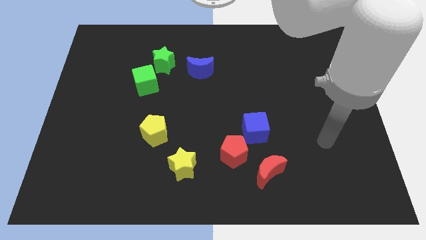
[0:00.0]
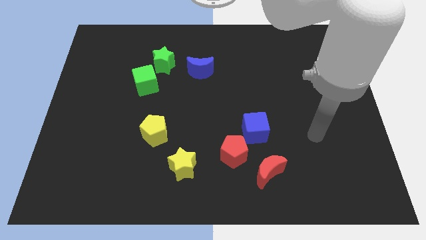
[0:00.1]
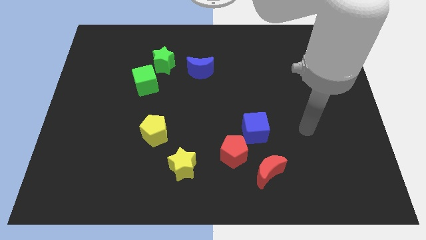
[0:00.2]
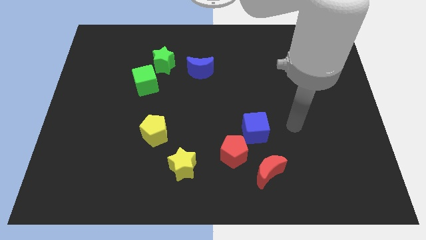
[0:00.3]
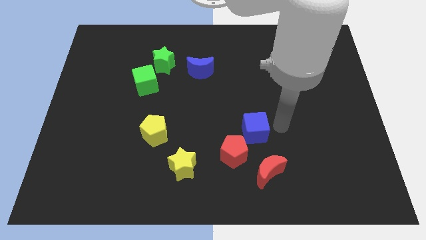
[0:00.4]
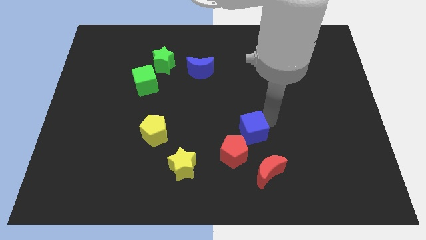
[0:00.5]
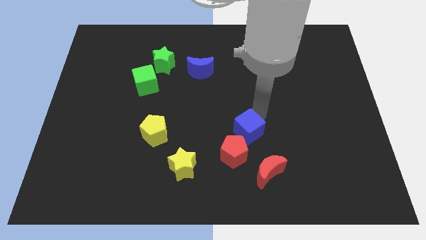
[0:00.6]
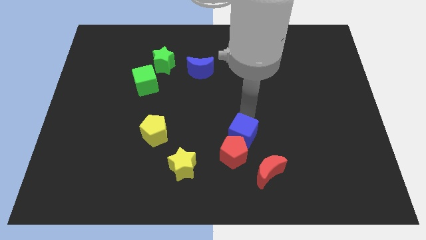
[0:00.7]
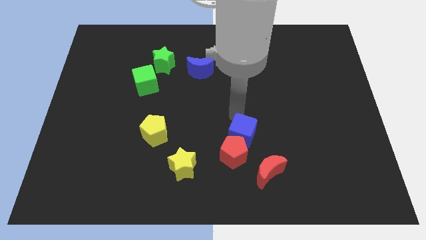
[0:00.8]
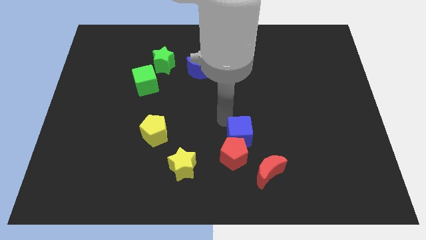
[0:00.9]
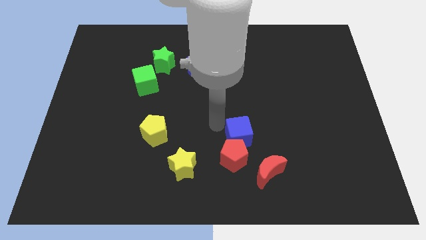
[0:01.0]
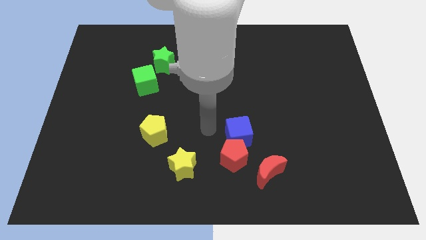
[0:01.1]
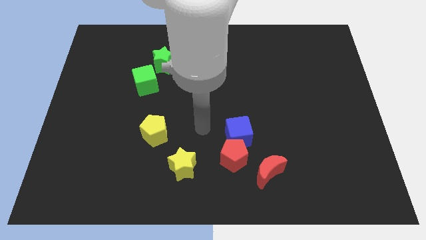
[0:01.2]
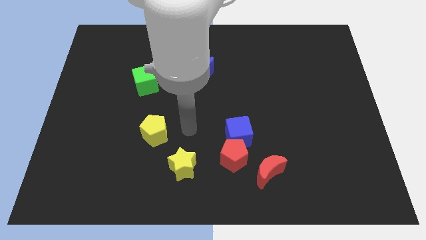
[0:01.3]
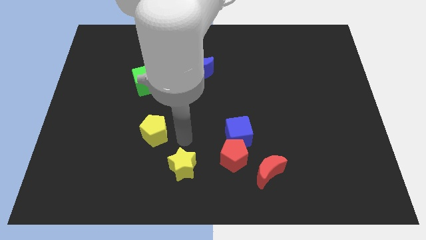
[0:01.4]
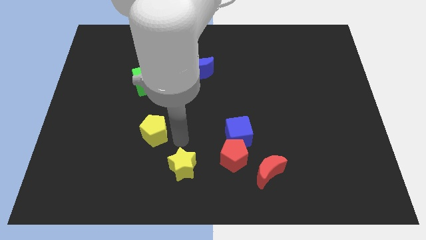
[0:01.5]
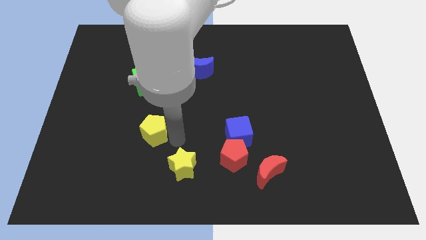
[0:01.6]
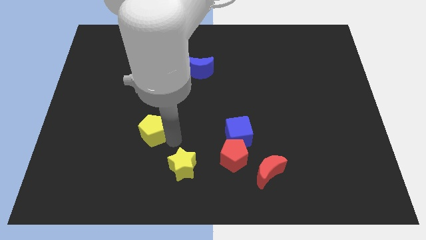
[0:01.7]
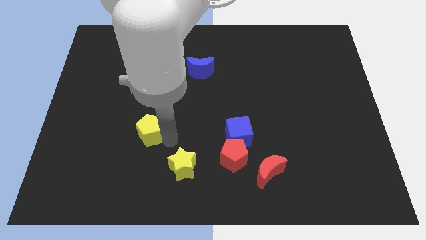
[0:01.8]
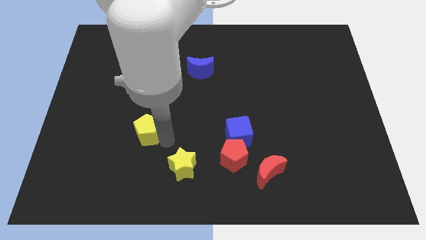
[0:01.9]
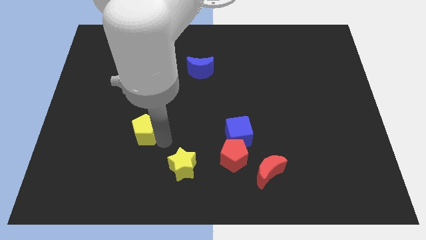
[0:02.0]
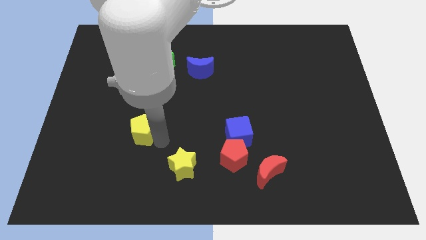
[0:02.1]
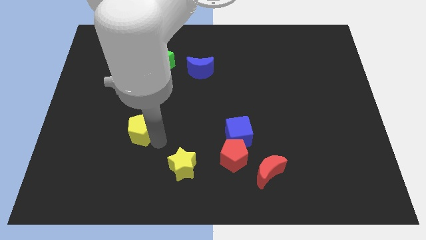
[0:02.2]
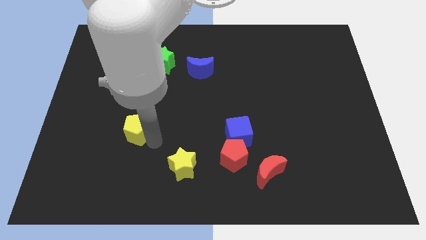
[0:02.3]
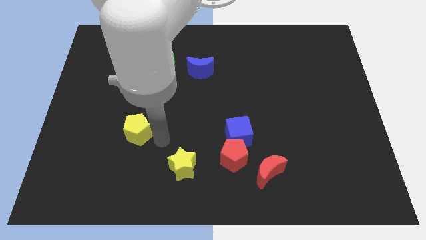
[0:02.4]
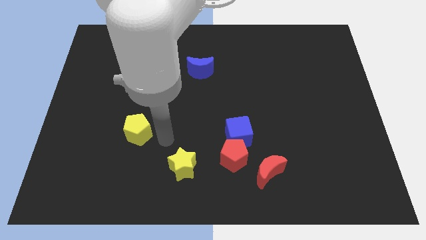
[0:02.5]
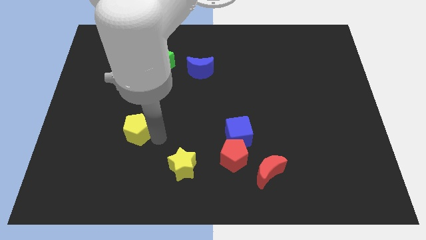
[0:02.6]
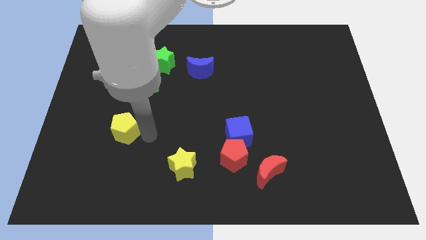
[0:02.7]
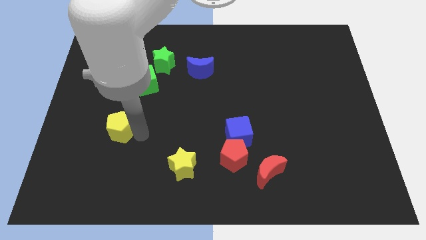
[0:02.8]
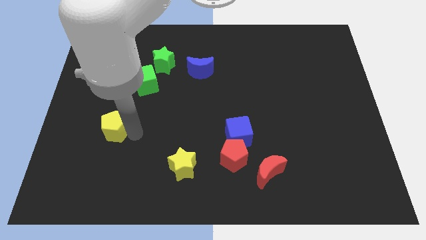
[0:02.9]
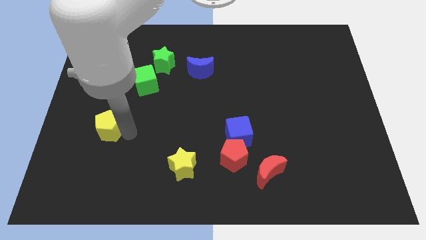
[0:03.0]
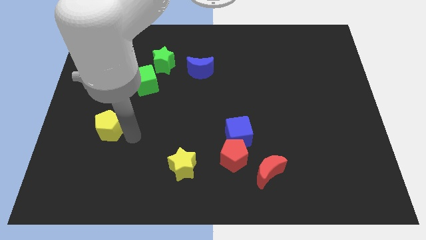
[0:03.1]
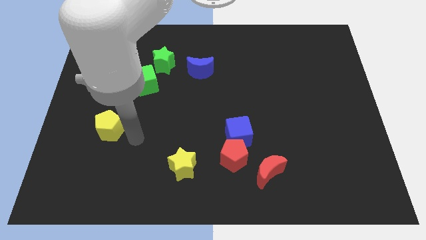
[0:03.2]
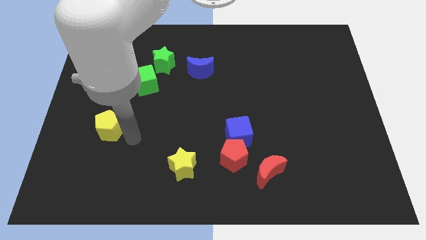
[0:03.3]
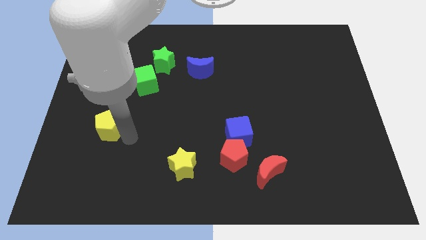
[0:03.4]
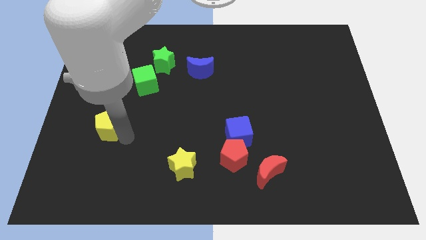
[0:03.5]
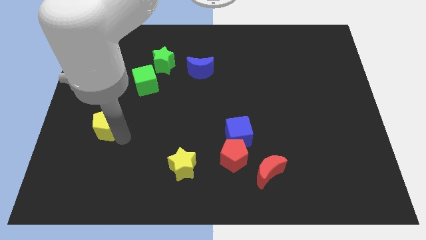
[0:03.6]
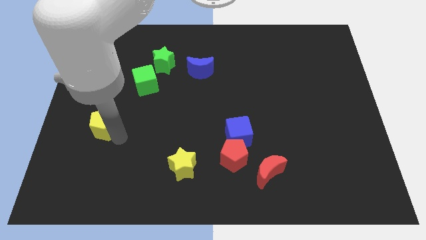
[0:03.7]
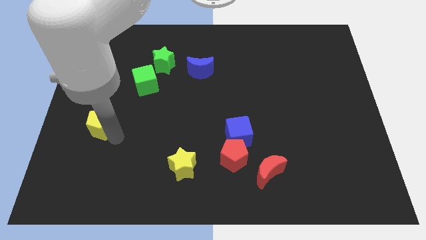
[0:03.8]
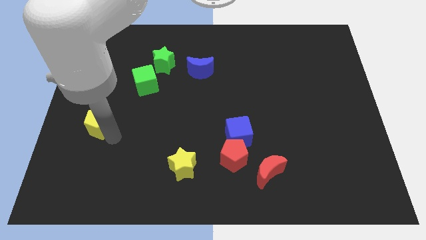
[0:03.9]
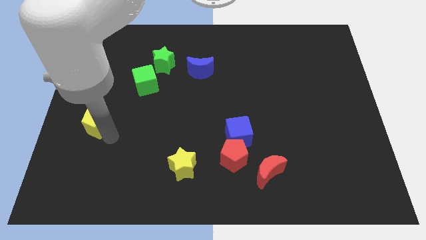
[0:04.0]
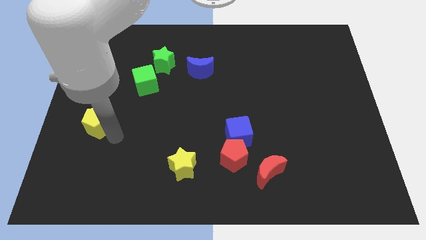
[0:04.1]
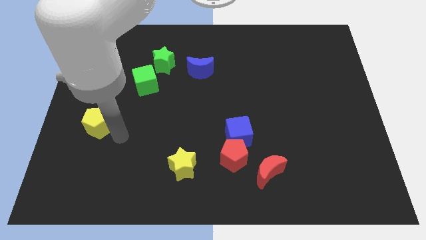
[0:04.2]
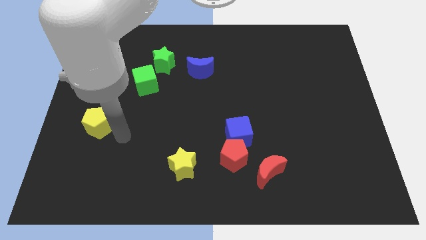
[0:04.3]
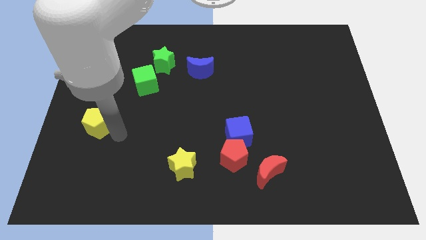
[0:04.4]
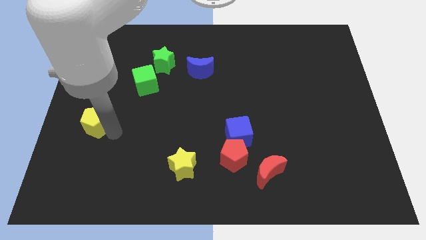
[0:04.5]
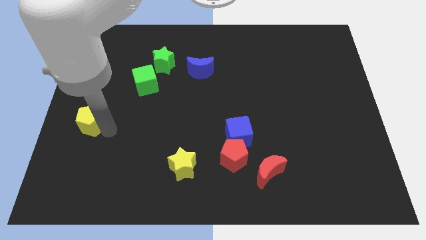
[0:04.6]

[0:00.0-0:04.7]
move the yellow pentagon to the left side

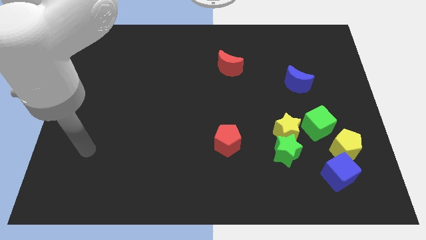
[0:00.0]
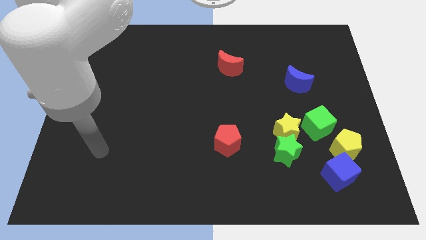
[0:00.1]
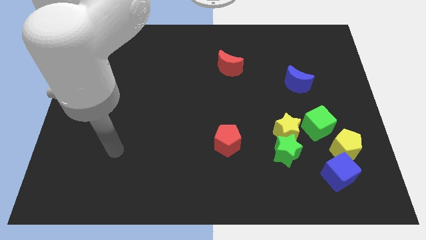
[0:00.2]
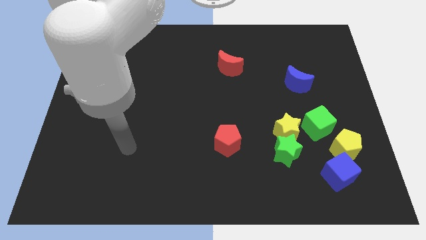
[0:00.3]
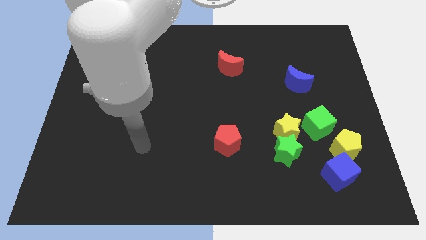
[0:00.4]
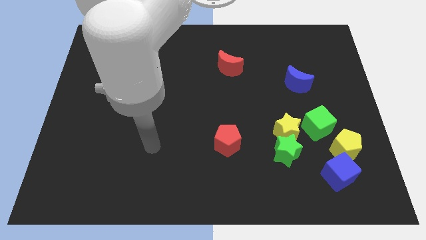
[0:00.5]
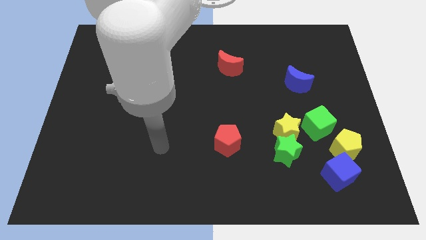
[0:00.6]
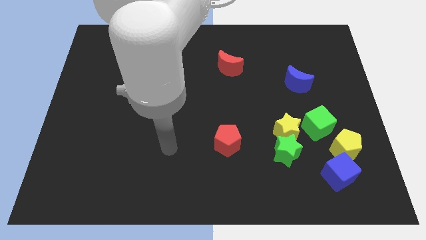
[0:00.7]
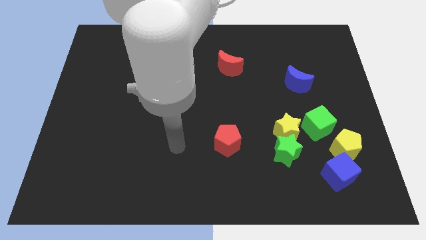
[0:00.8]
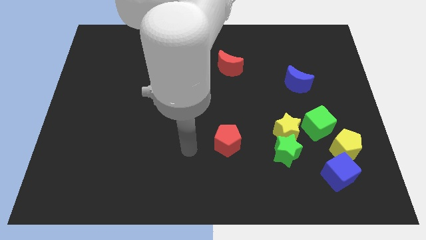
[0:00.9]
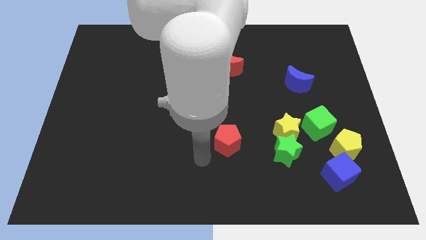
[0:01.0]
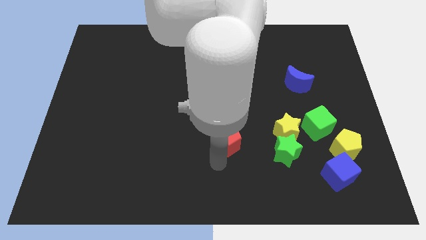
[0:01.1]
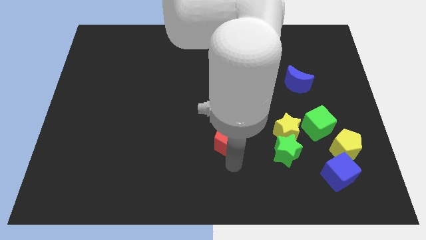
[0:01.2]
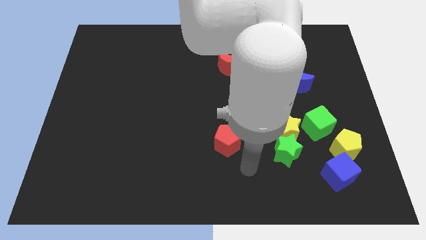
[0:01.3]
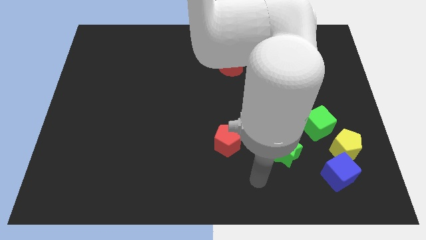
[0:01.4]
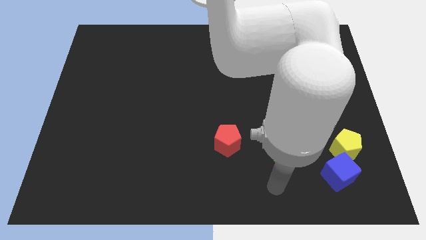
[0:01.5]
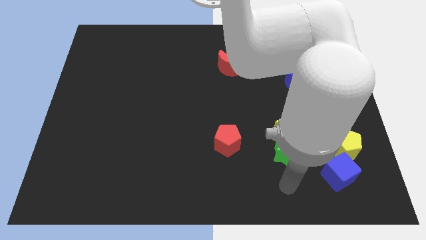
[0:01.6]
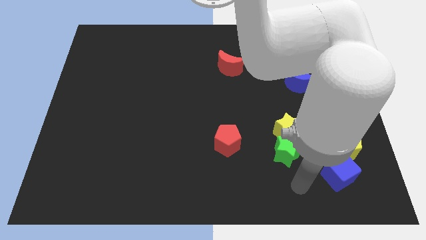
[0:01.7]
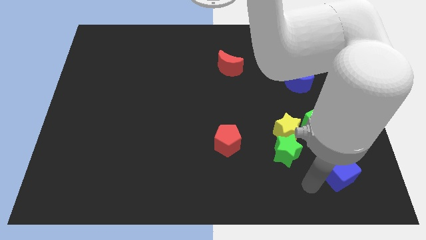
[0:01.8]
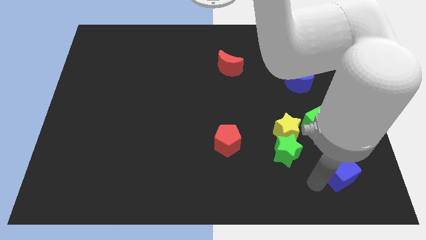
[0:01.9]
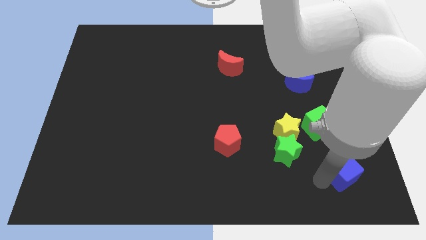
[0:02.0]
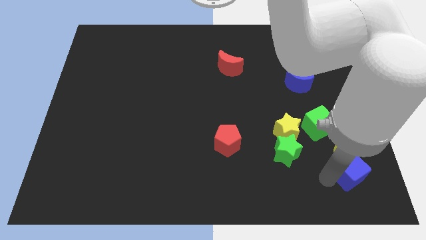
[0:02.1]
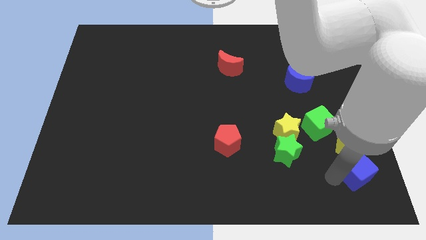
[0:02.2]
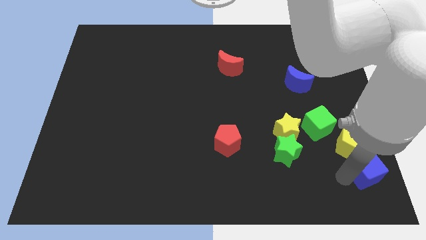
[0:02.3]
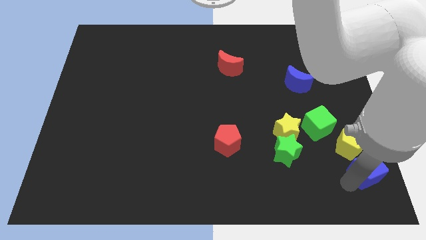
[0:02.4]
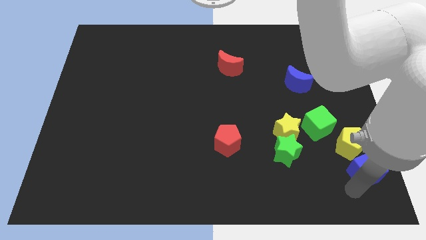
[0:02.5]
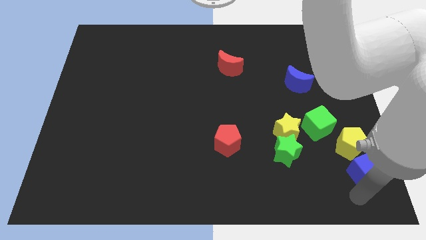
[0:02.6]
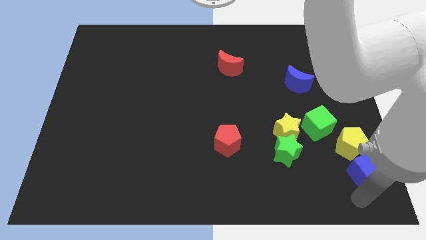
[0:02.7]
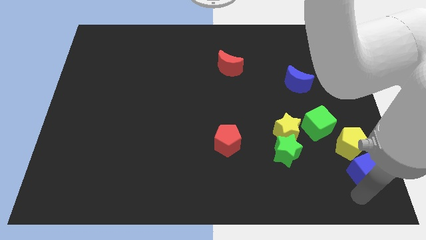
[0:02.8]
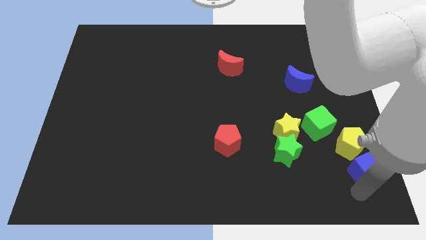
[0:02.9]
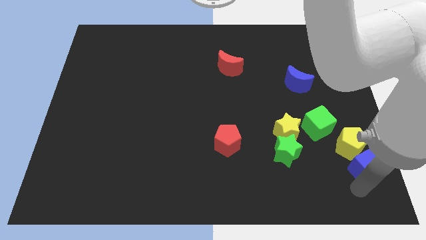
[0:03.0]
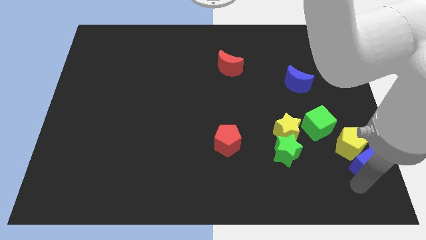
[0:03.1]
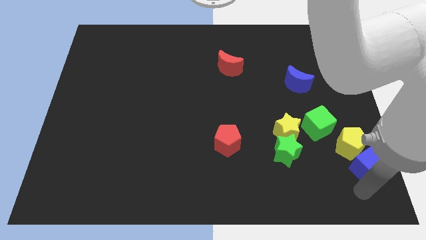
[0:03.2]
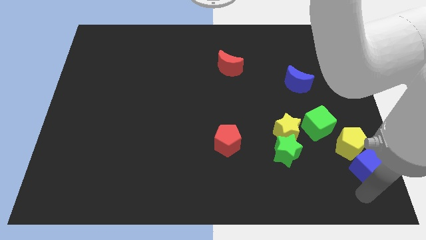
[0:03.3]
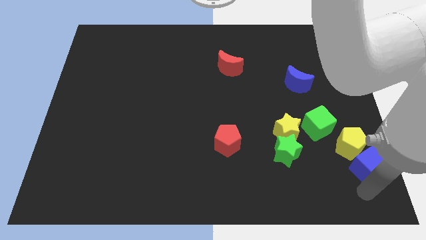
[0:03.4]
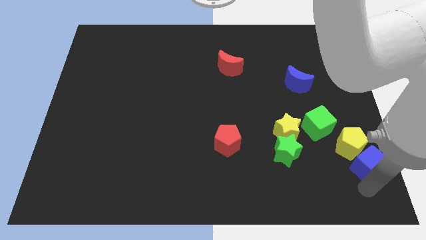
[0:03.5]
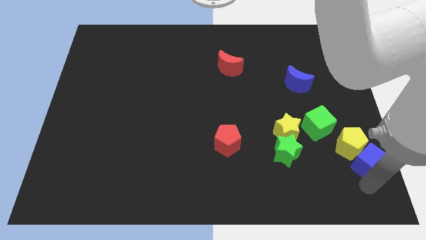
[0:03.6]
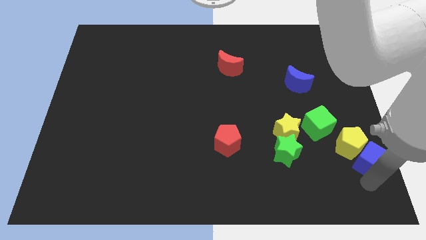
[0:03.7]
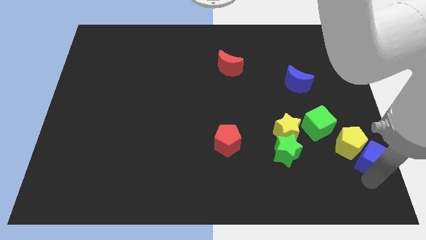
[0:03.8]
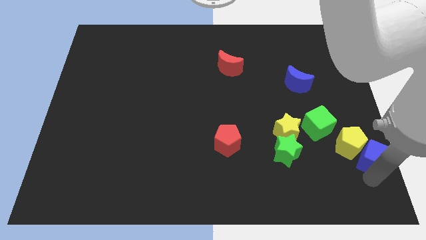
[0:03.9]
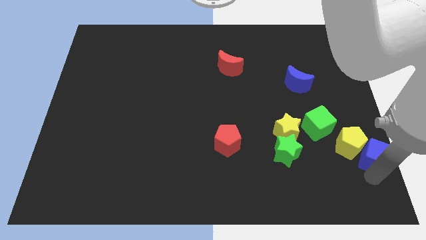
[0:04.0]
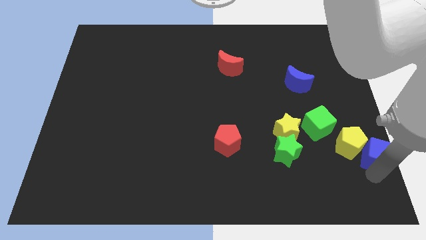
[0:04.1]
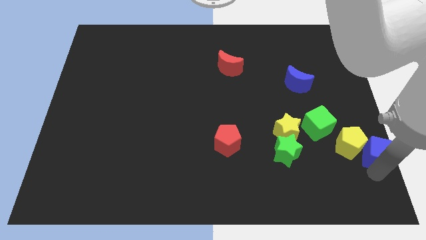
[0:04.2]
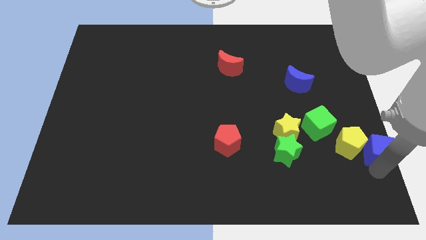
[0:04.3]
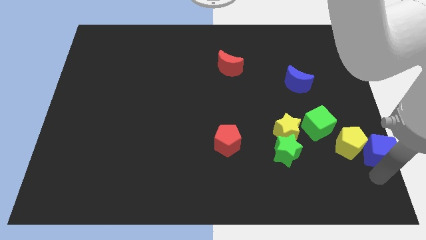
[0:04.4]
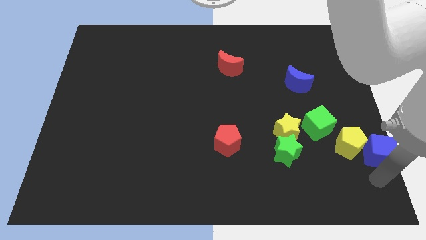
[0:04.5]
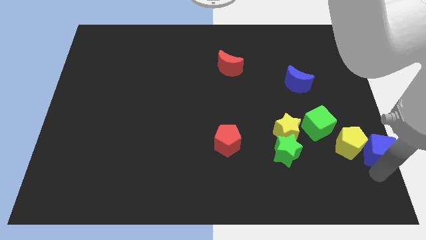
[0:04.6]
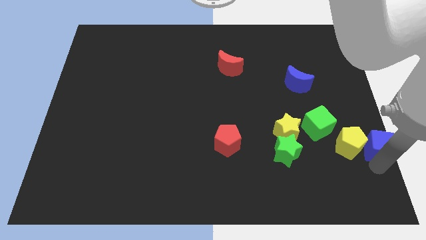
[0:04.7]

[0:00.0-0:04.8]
push the blue cube to the center right
